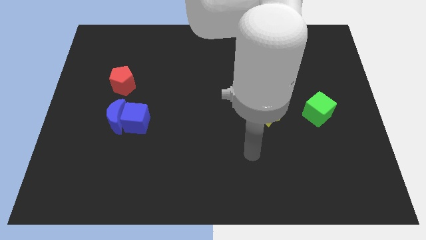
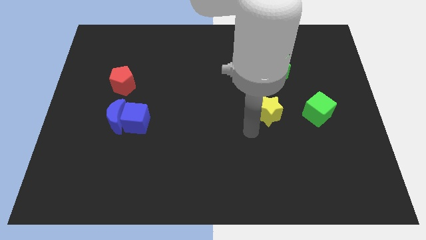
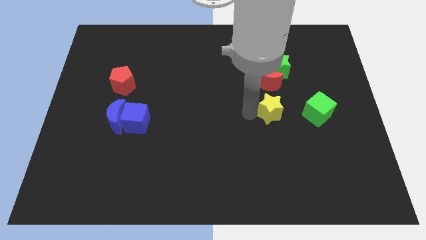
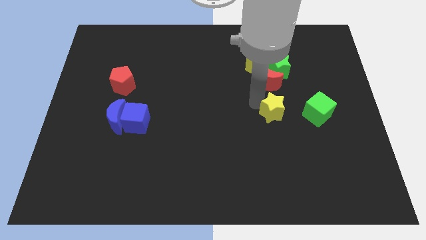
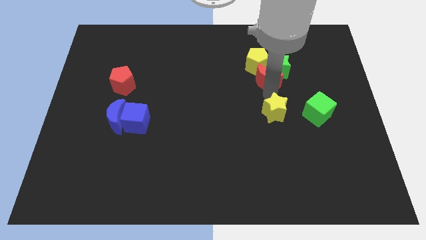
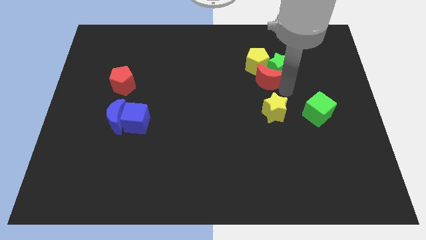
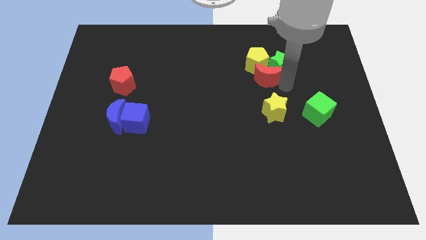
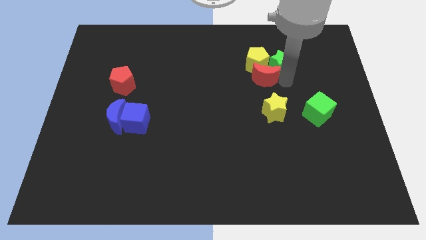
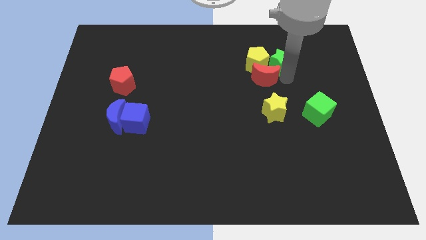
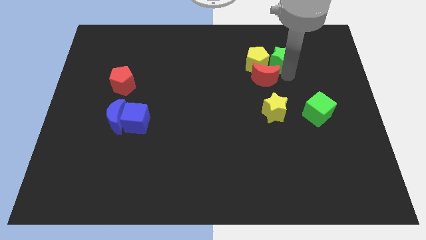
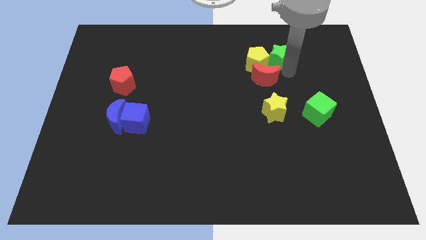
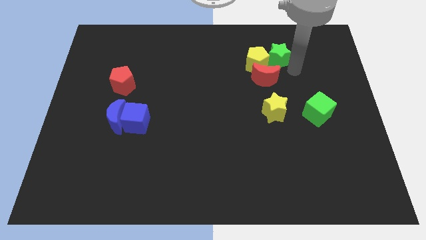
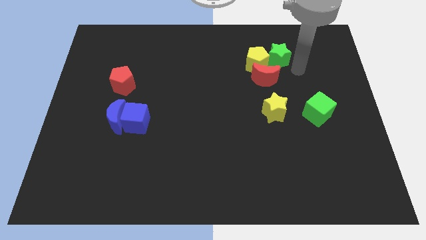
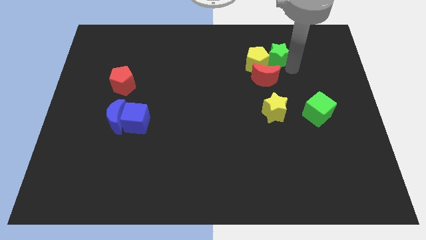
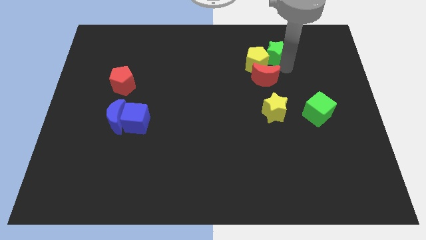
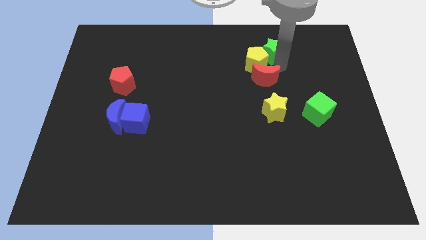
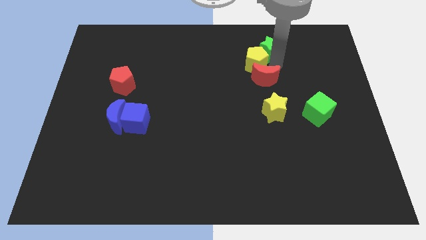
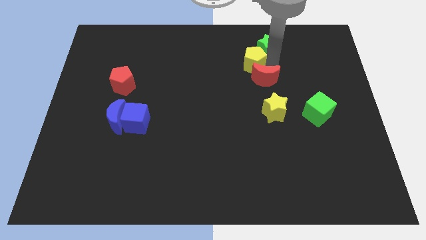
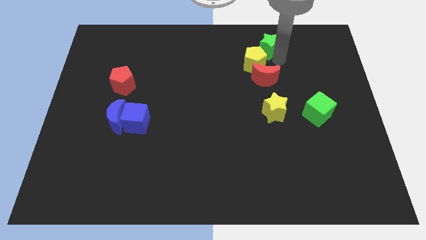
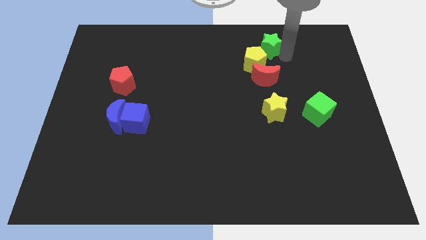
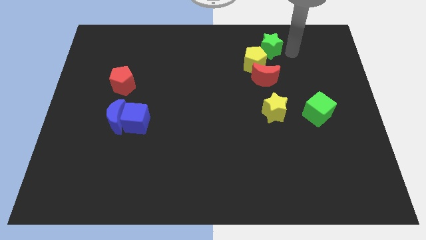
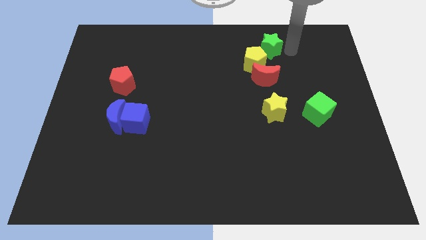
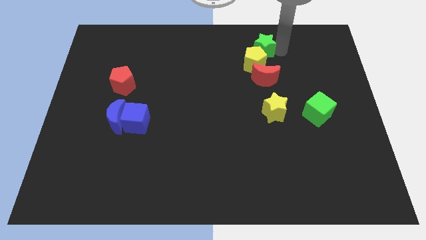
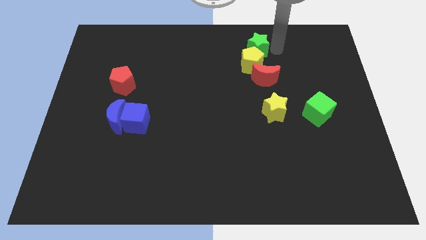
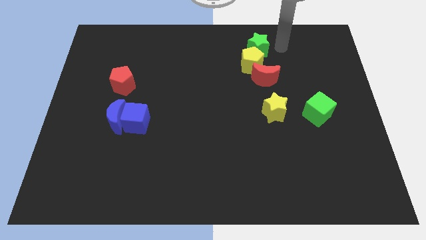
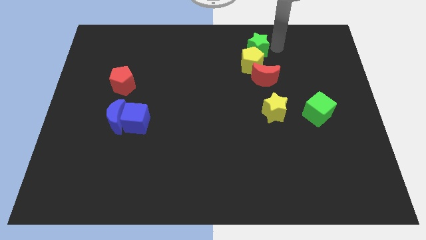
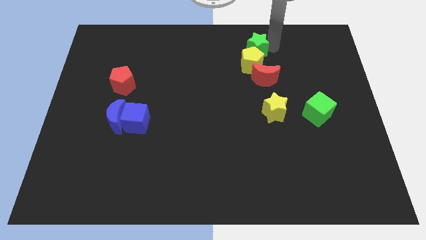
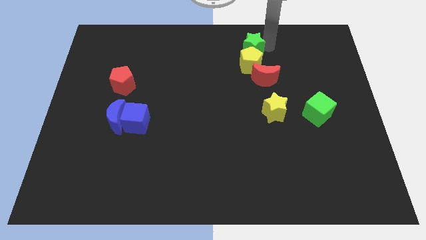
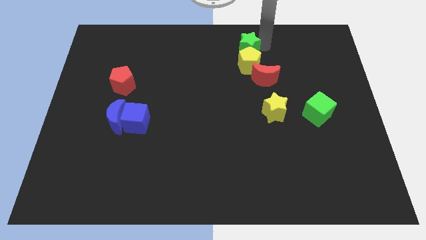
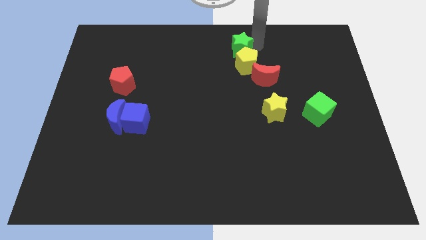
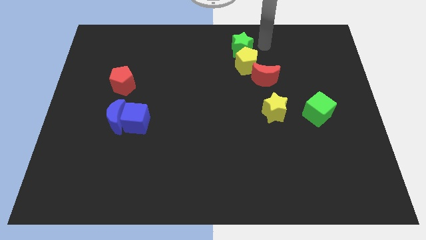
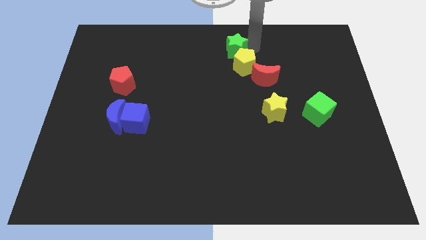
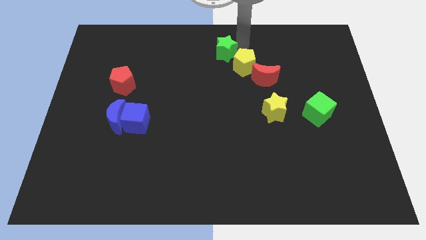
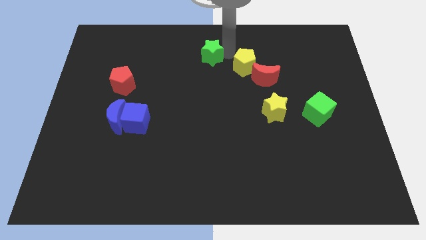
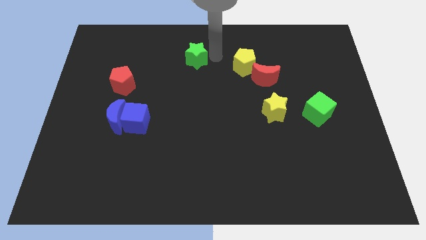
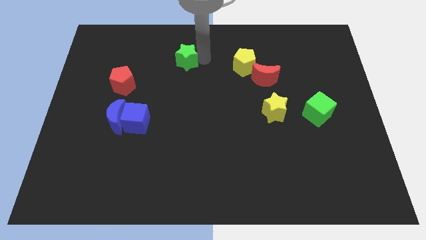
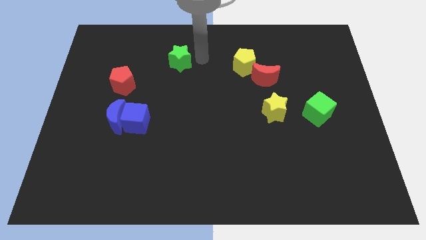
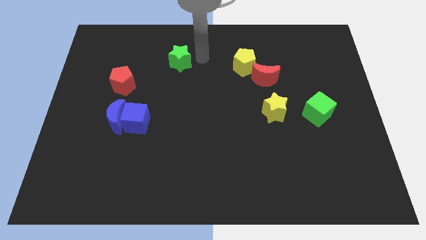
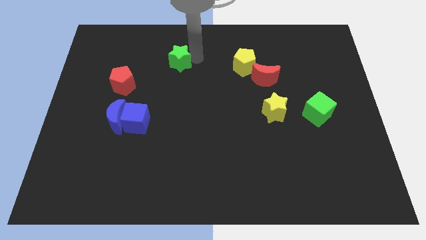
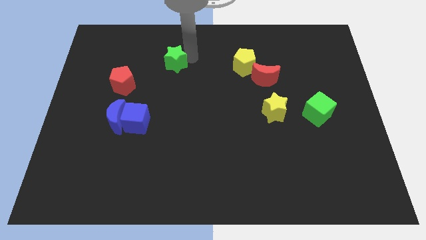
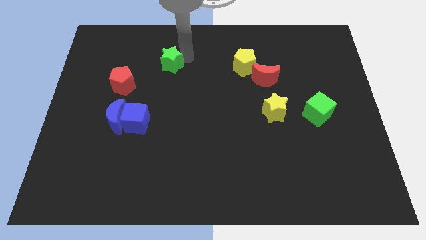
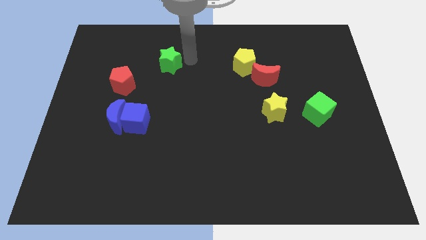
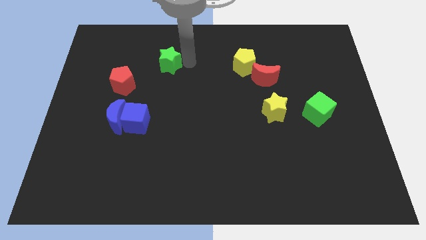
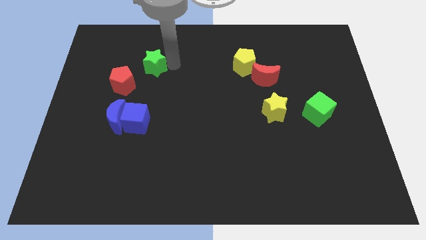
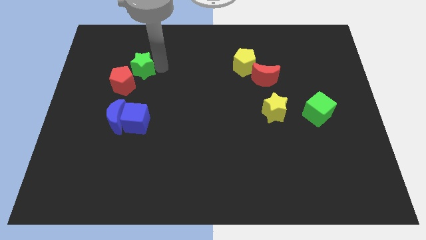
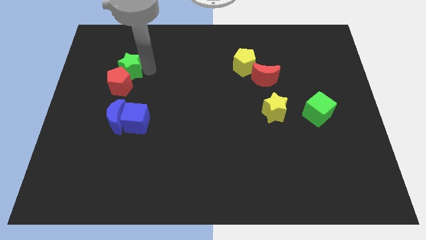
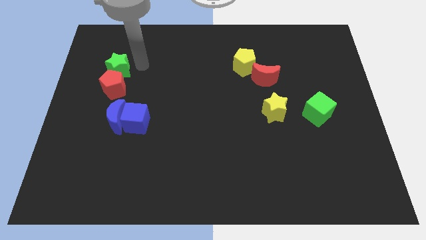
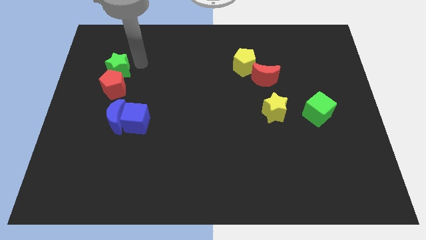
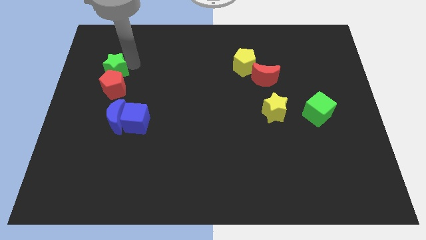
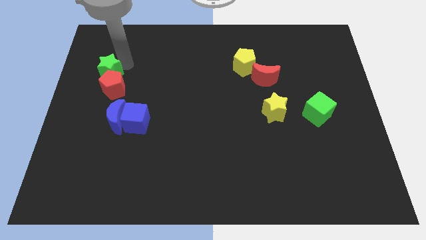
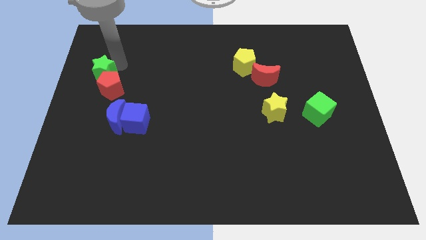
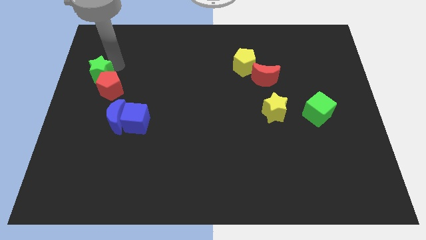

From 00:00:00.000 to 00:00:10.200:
move the green star to the left side of the board
